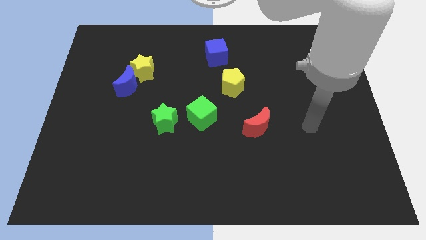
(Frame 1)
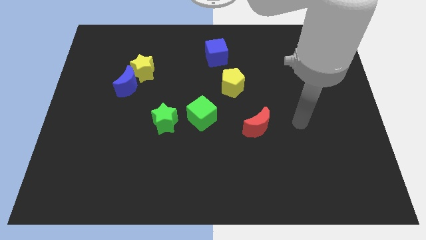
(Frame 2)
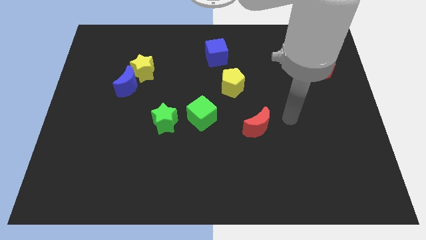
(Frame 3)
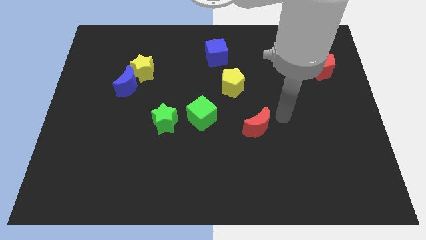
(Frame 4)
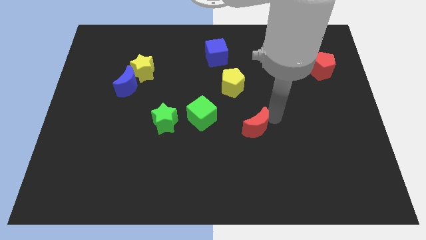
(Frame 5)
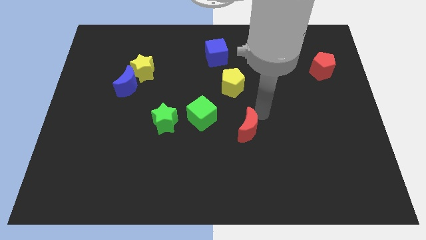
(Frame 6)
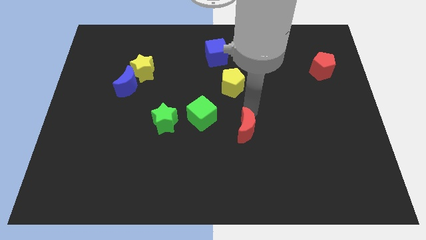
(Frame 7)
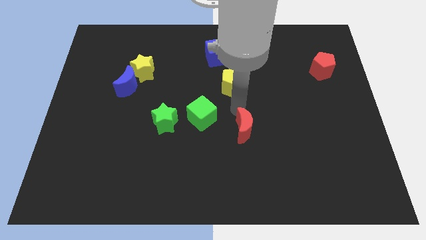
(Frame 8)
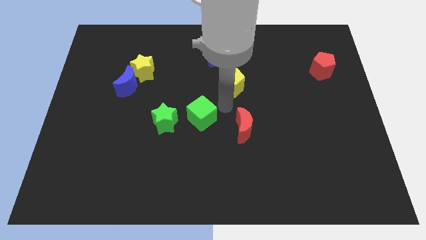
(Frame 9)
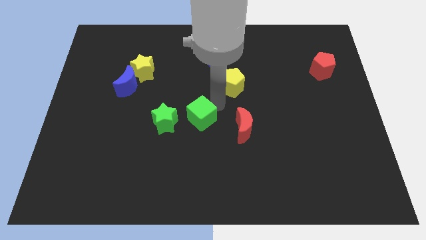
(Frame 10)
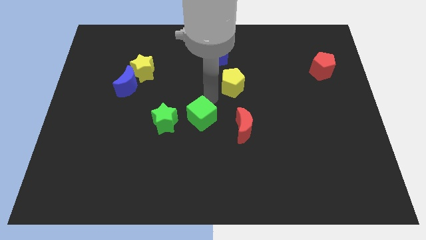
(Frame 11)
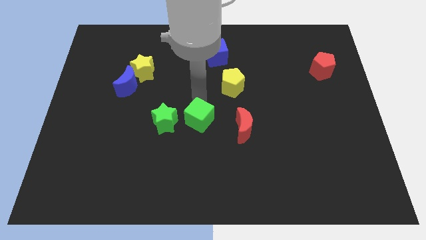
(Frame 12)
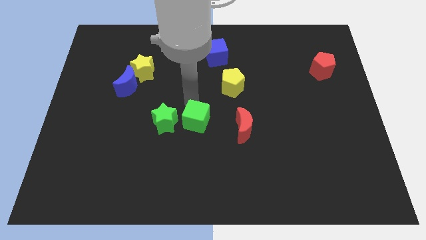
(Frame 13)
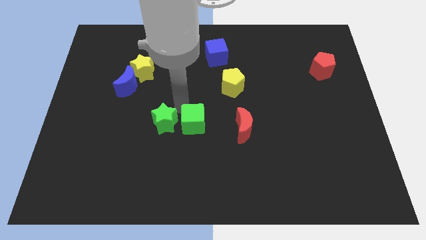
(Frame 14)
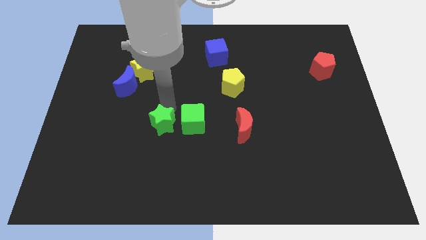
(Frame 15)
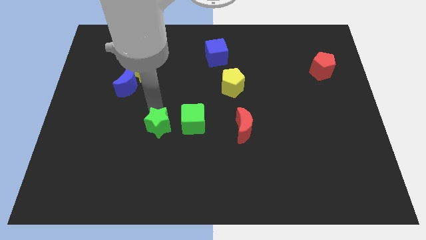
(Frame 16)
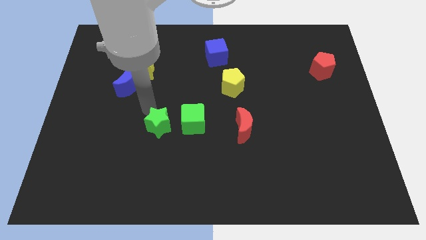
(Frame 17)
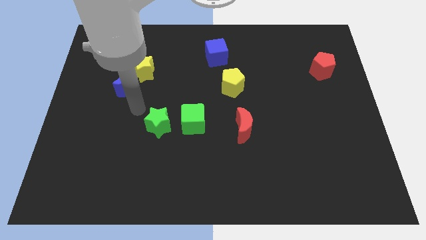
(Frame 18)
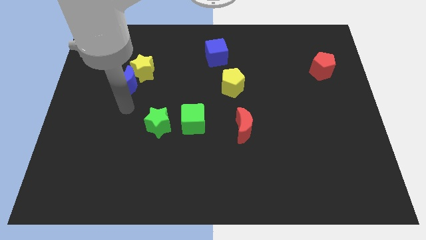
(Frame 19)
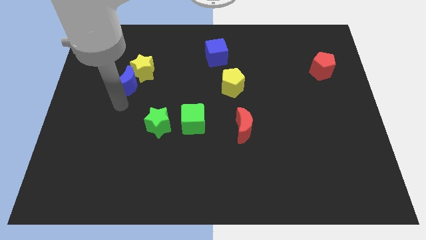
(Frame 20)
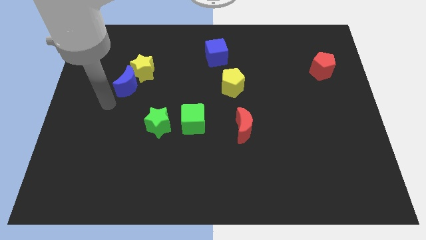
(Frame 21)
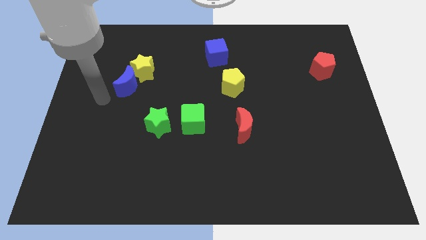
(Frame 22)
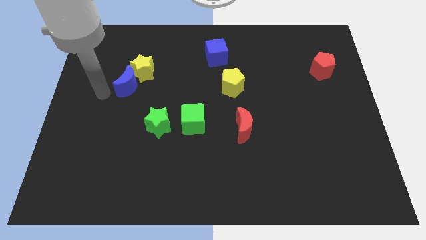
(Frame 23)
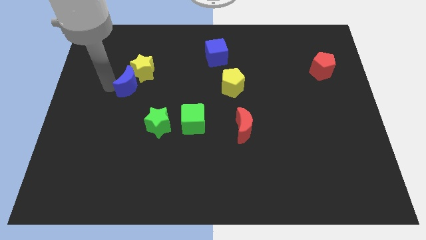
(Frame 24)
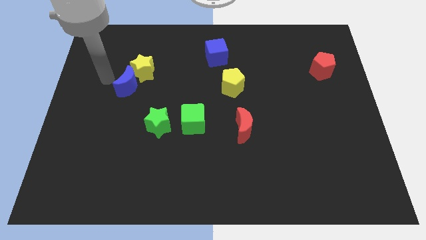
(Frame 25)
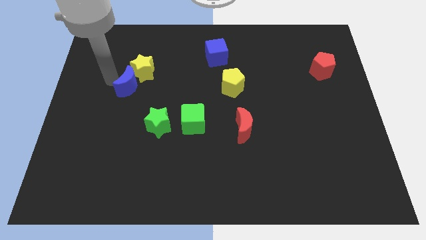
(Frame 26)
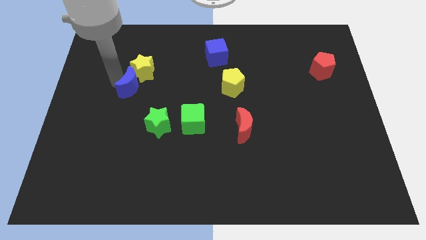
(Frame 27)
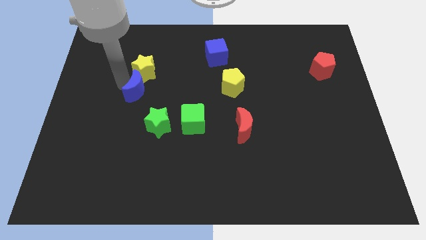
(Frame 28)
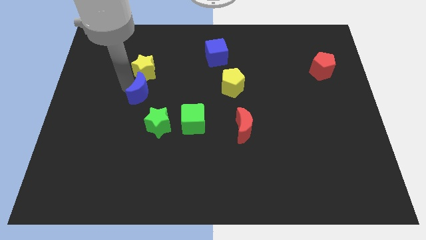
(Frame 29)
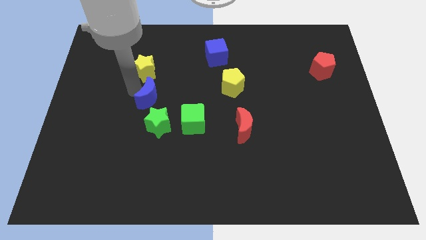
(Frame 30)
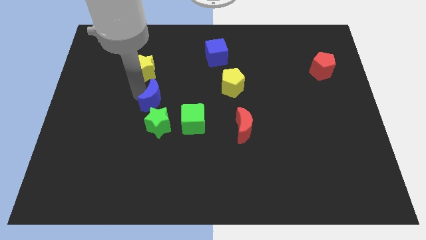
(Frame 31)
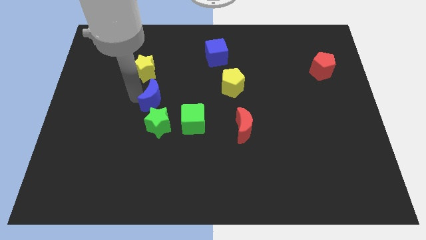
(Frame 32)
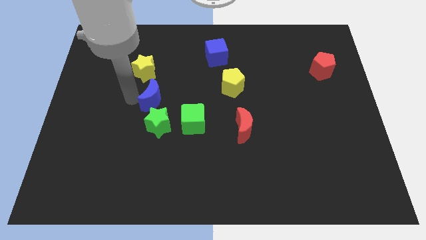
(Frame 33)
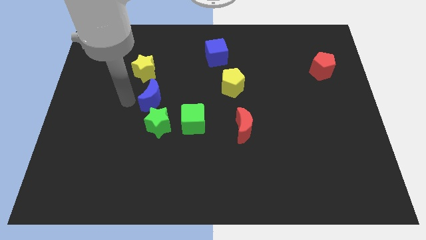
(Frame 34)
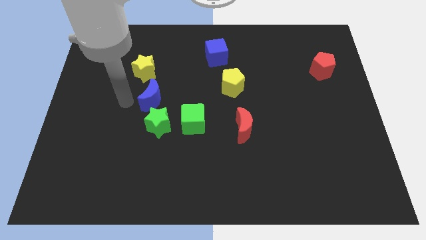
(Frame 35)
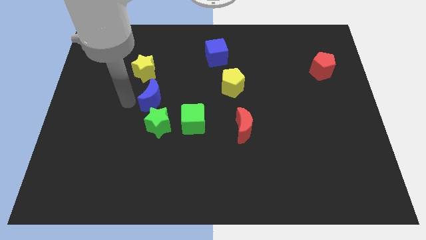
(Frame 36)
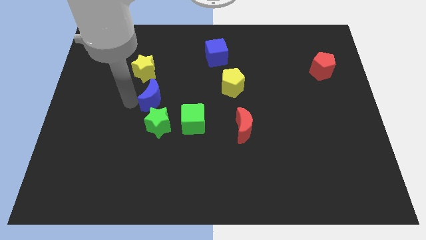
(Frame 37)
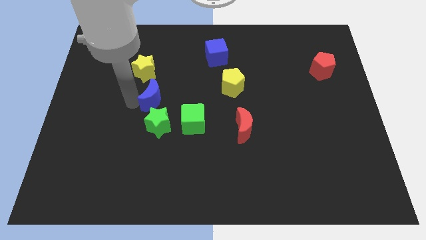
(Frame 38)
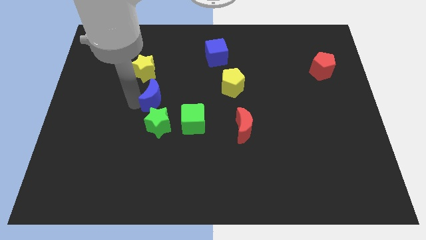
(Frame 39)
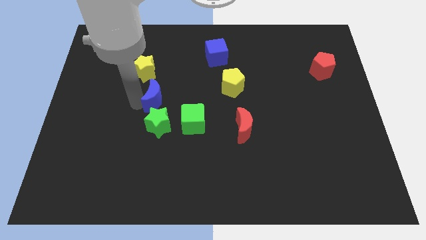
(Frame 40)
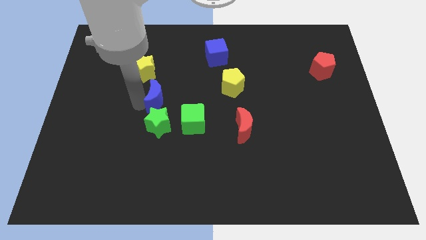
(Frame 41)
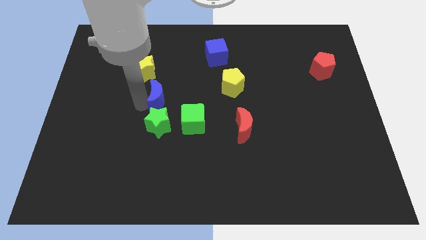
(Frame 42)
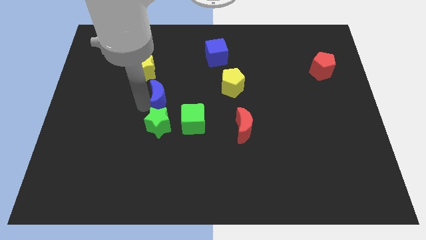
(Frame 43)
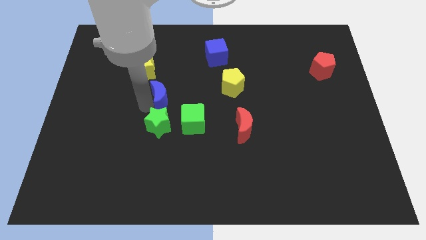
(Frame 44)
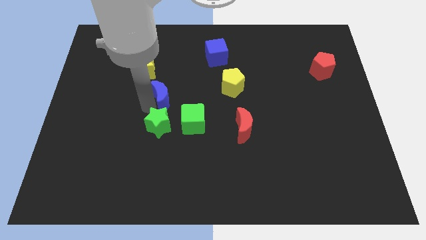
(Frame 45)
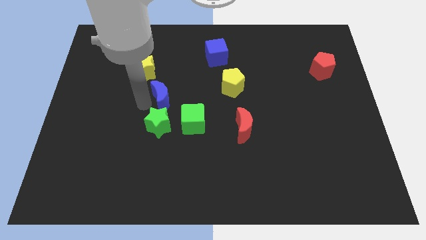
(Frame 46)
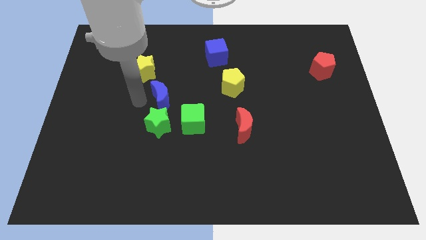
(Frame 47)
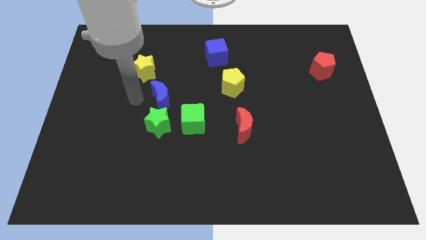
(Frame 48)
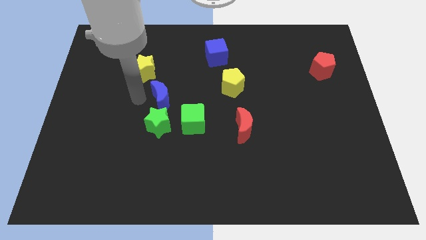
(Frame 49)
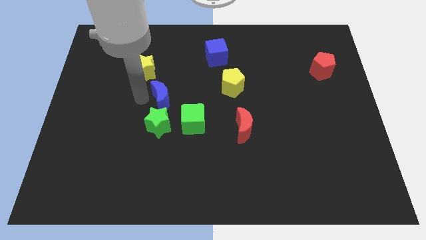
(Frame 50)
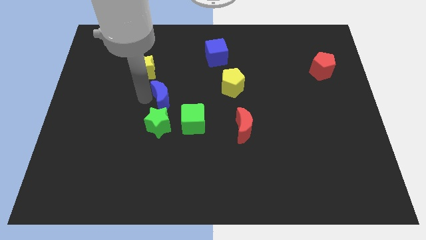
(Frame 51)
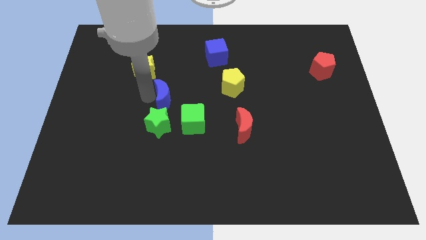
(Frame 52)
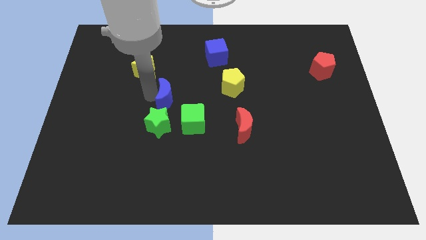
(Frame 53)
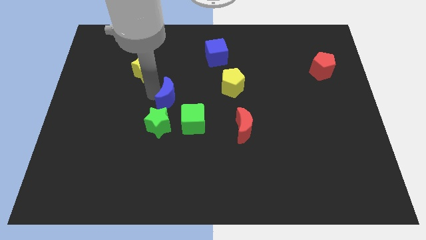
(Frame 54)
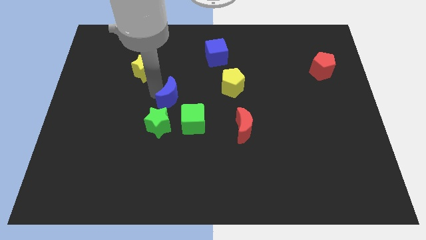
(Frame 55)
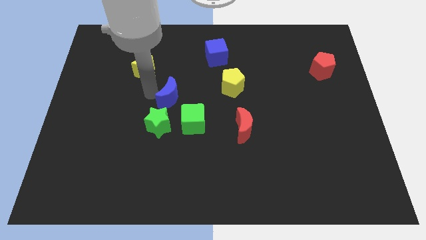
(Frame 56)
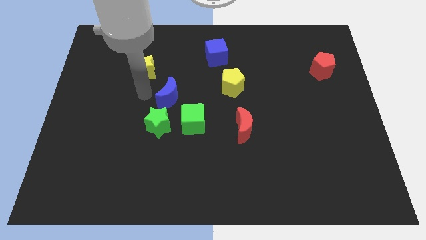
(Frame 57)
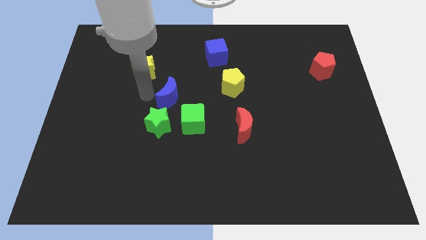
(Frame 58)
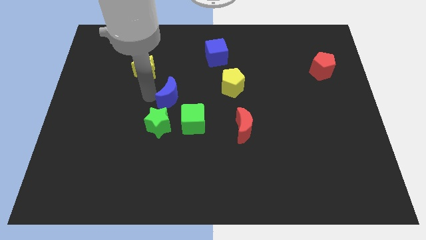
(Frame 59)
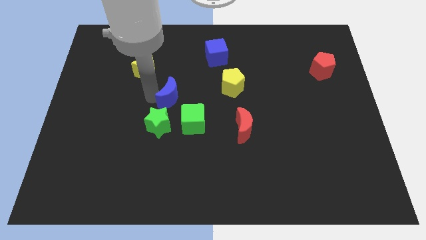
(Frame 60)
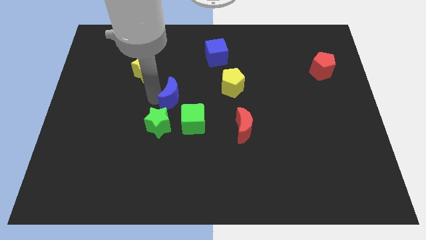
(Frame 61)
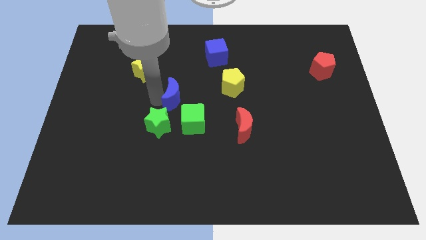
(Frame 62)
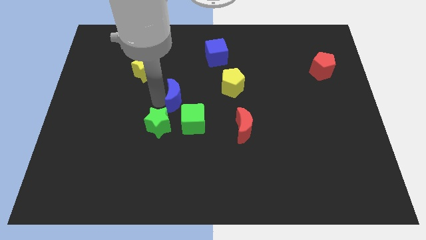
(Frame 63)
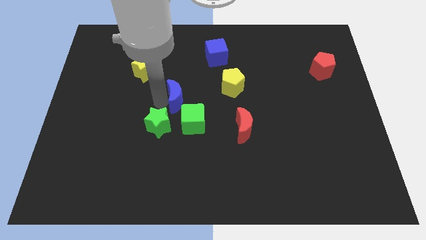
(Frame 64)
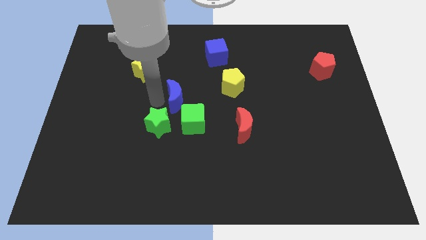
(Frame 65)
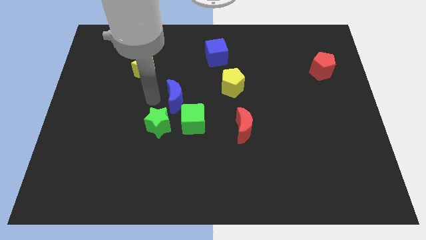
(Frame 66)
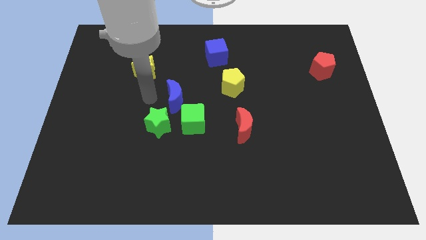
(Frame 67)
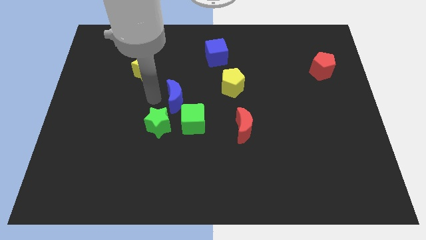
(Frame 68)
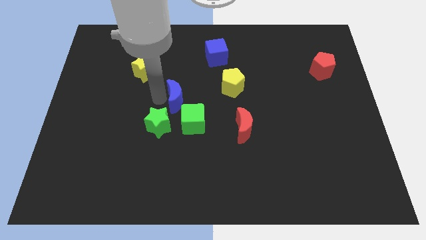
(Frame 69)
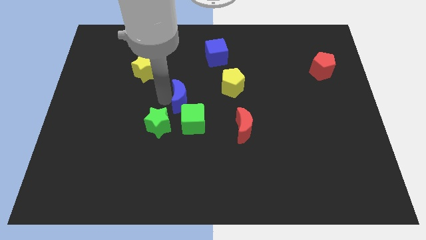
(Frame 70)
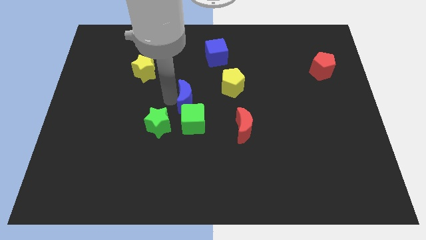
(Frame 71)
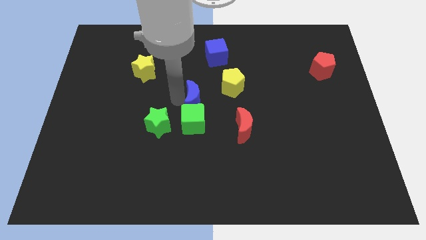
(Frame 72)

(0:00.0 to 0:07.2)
slide the blue moon to the bottom left of the yellow pentagon

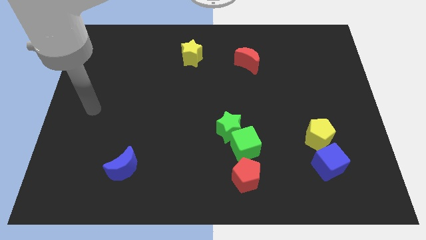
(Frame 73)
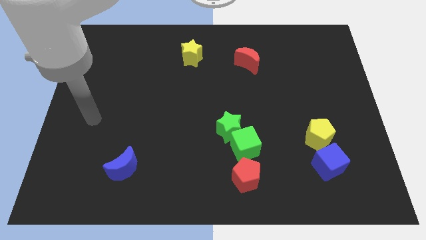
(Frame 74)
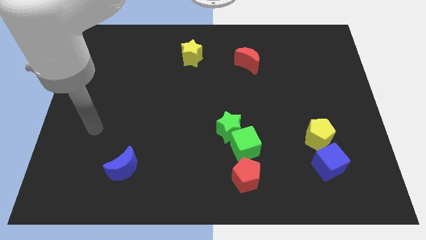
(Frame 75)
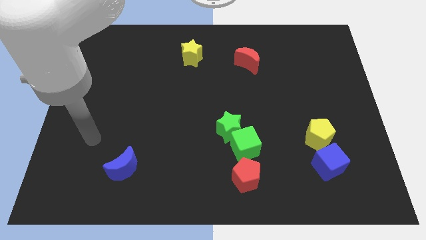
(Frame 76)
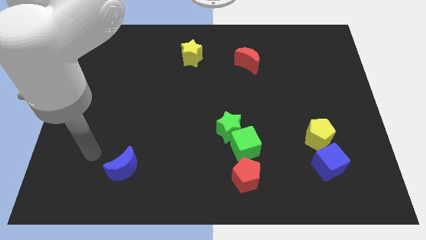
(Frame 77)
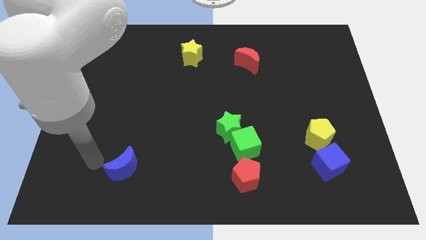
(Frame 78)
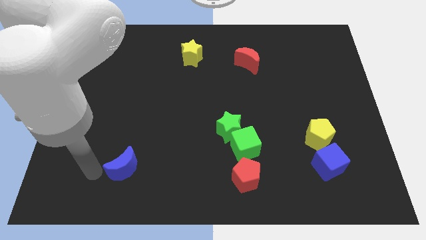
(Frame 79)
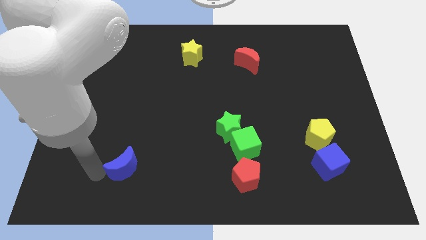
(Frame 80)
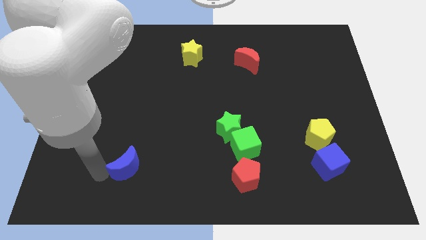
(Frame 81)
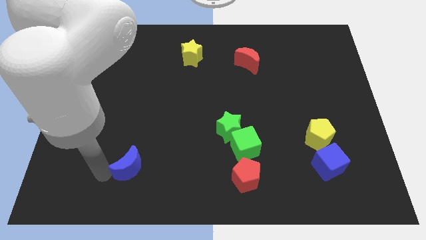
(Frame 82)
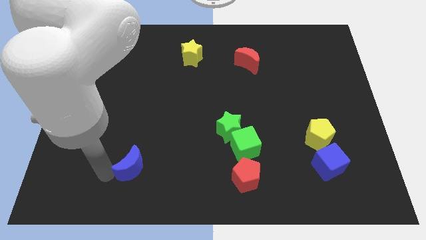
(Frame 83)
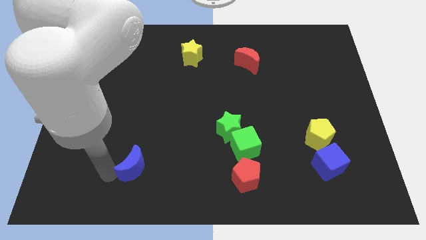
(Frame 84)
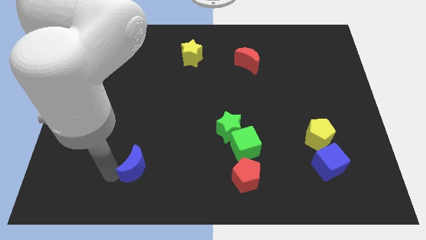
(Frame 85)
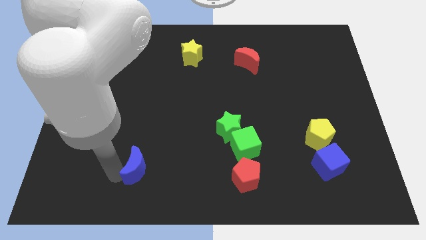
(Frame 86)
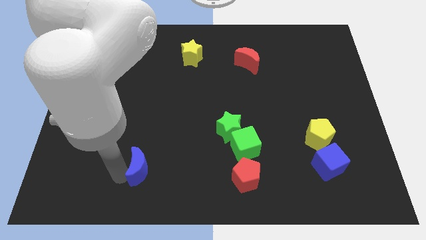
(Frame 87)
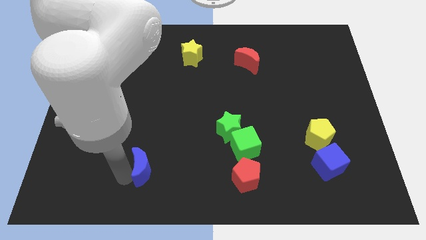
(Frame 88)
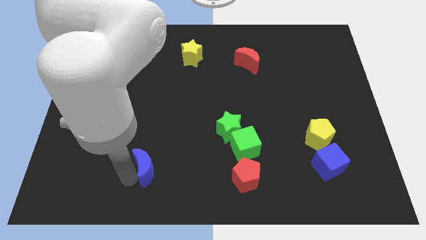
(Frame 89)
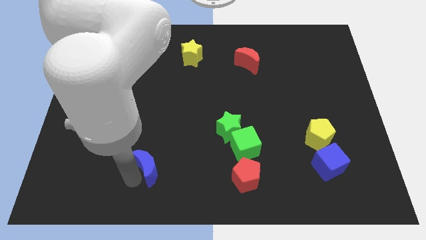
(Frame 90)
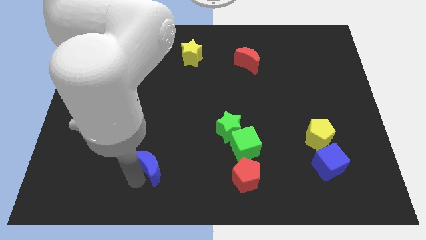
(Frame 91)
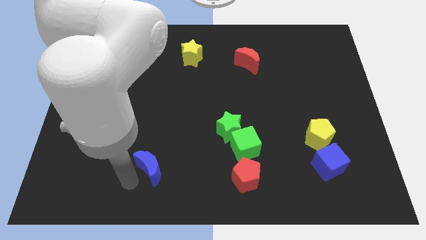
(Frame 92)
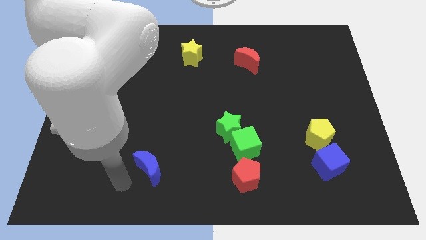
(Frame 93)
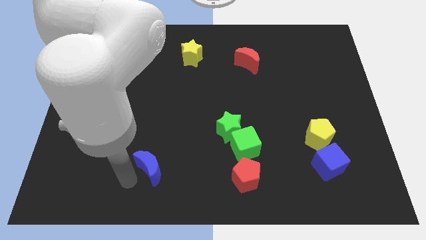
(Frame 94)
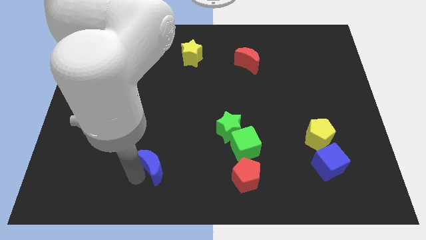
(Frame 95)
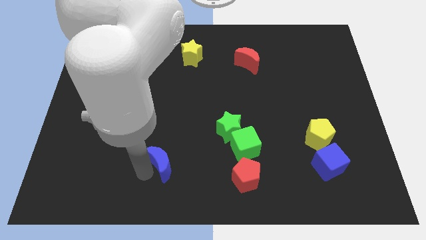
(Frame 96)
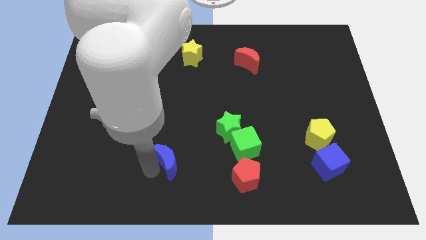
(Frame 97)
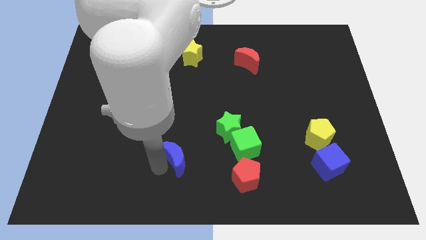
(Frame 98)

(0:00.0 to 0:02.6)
slide the blue moon to the left side of the green cube
